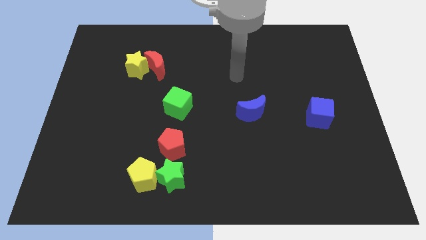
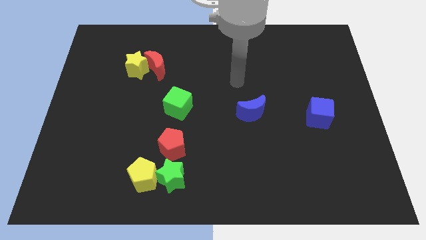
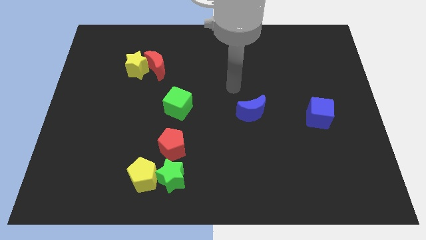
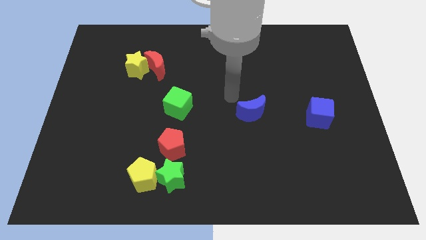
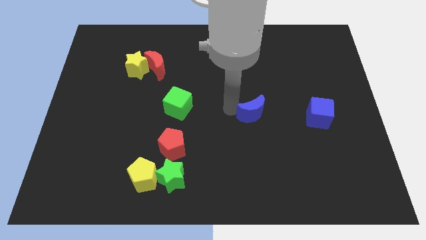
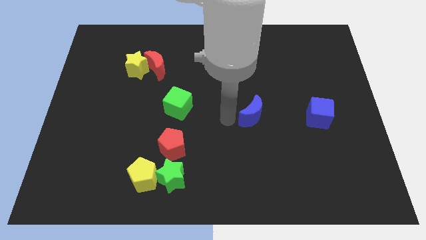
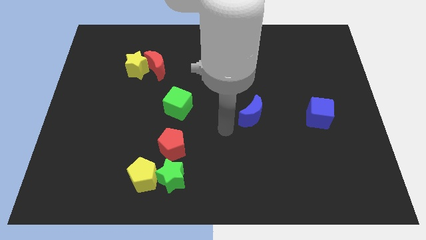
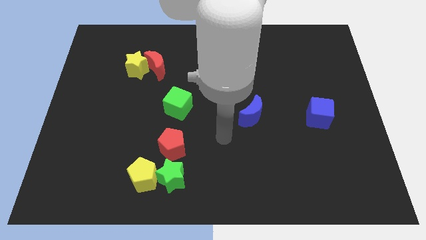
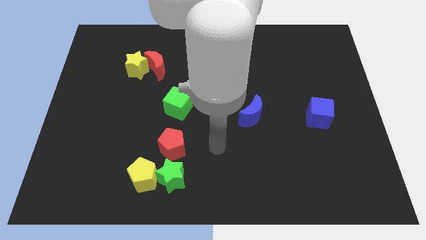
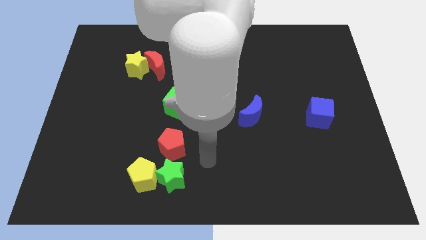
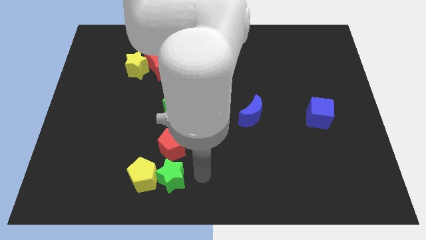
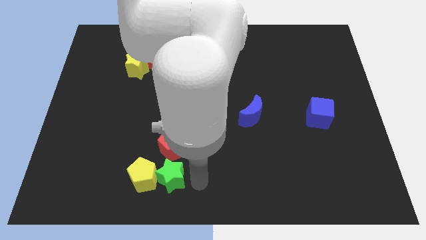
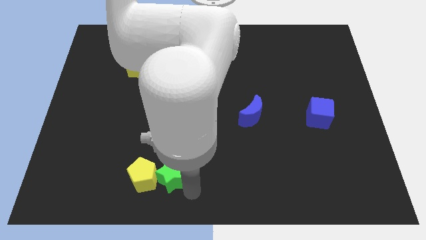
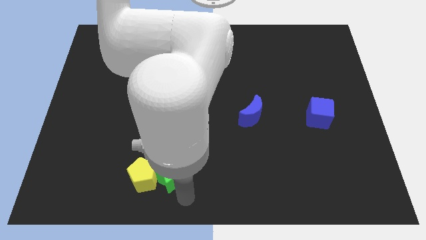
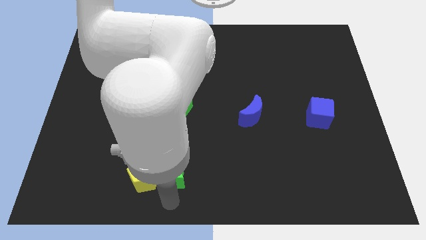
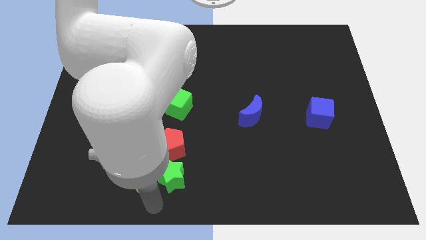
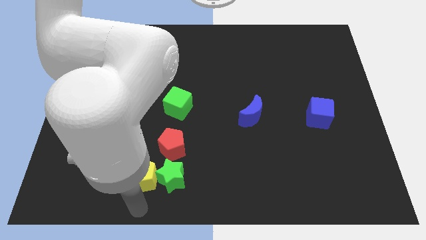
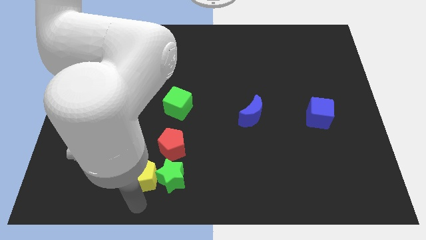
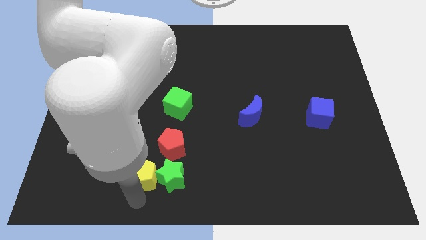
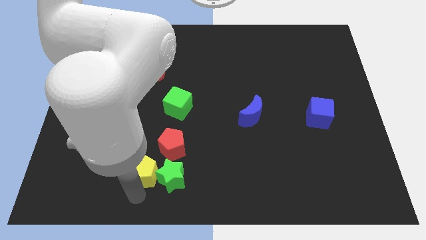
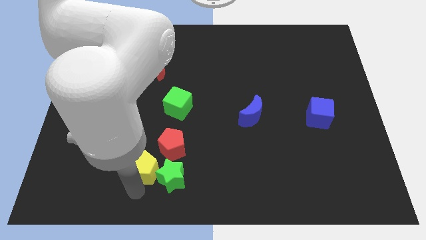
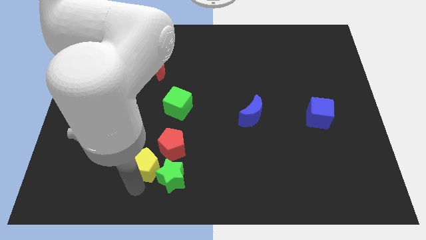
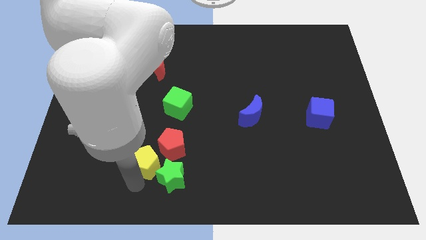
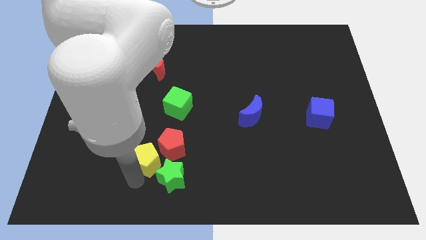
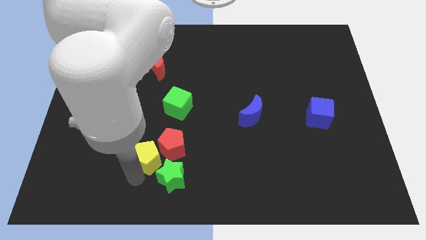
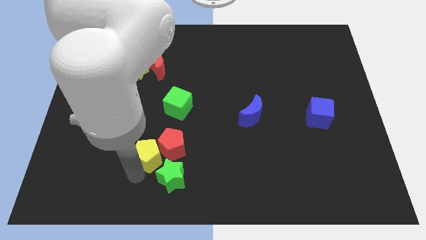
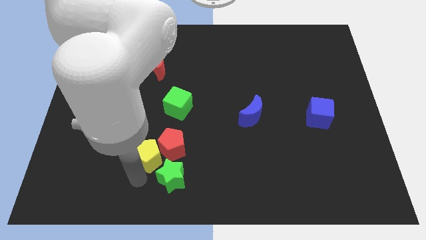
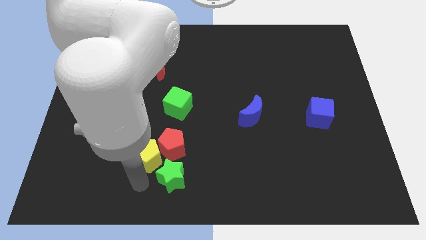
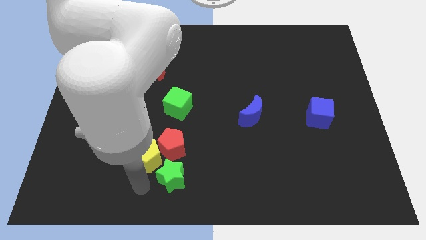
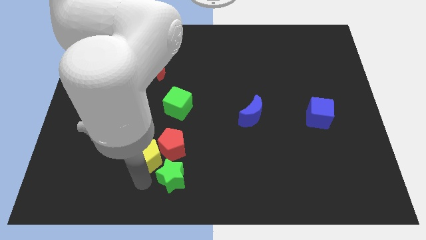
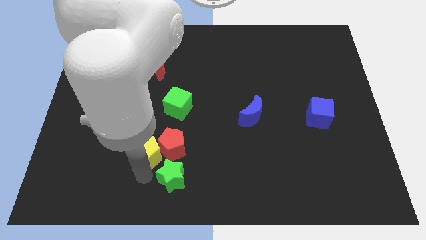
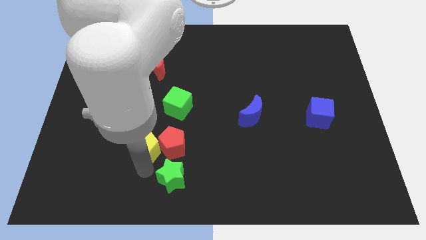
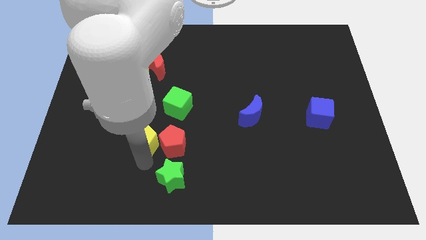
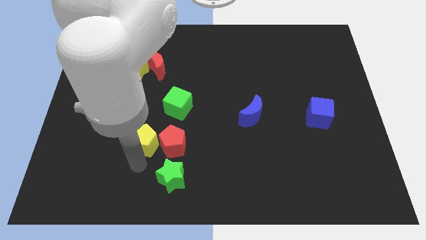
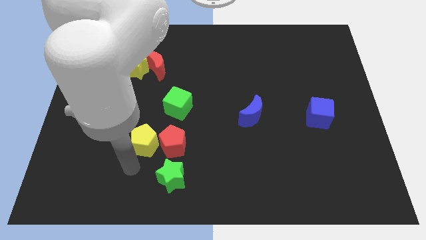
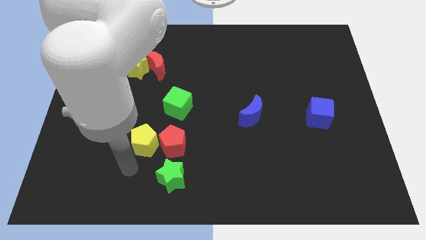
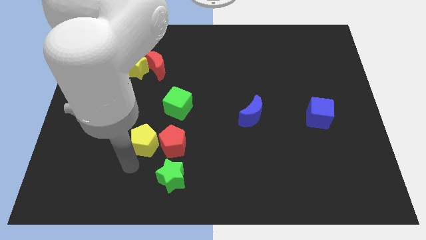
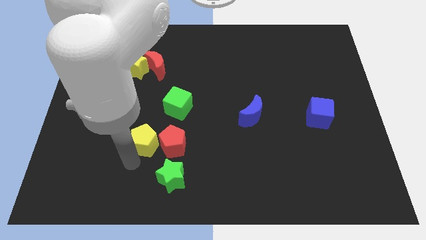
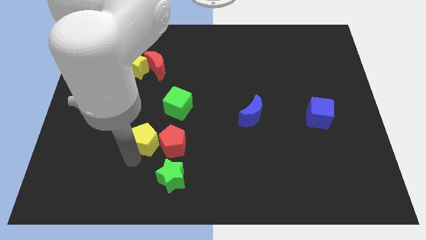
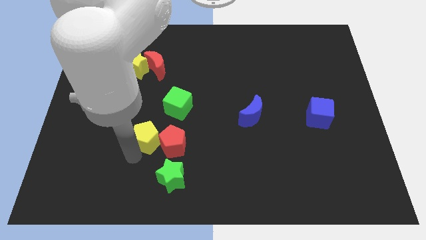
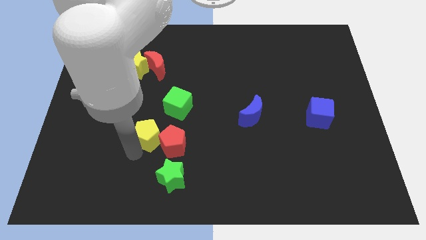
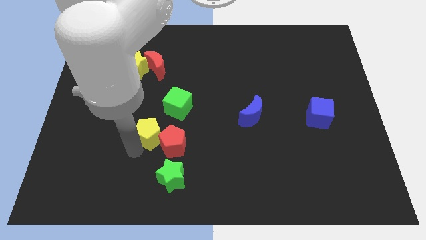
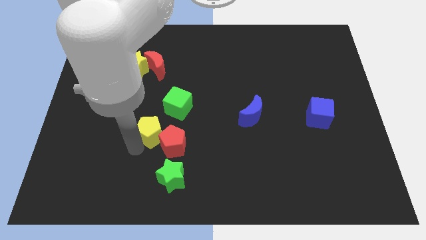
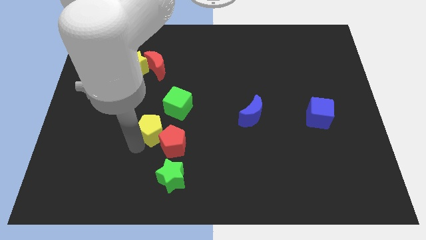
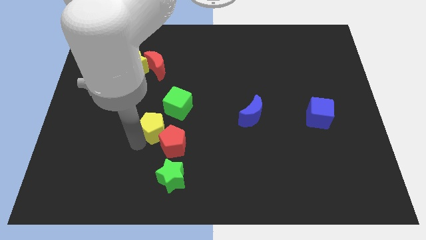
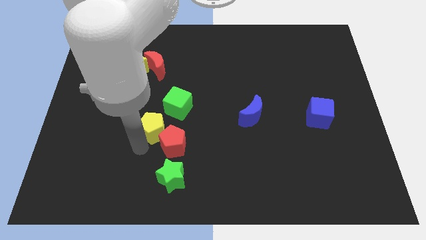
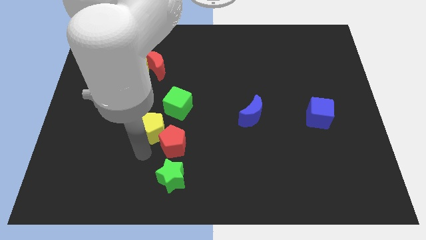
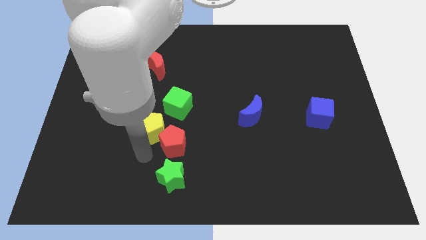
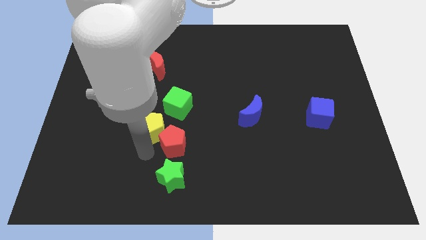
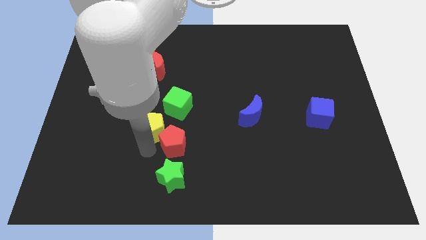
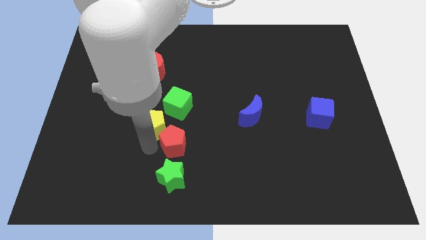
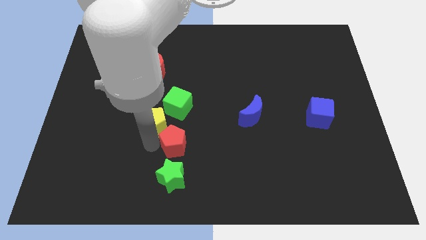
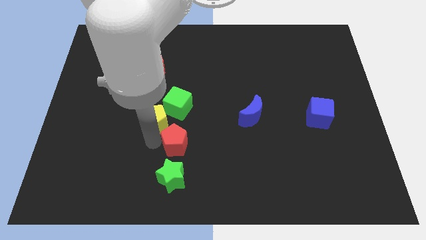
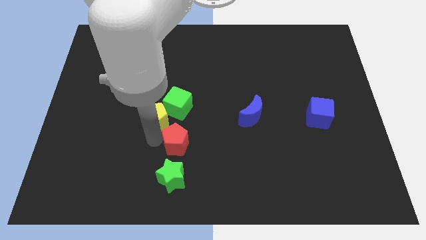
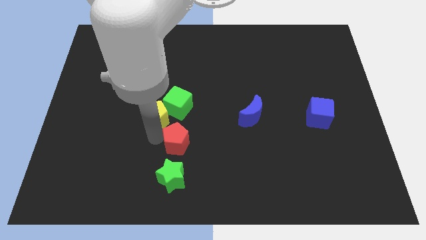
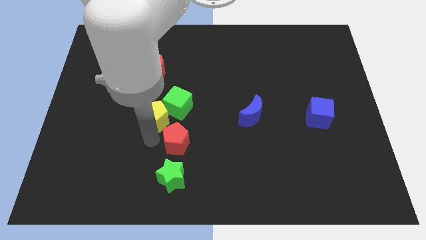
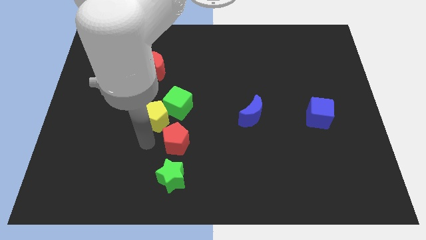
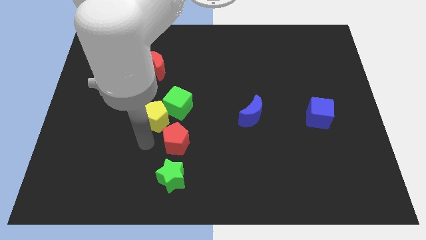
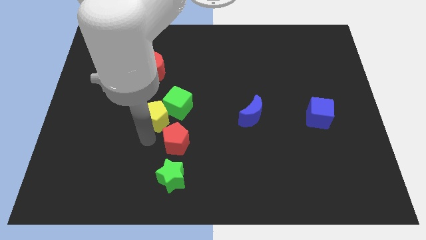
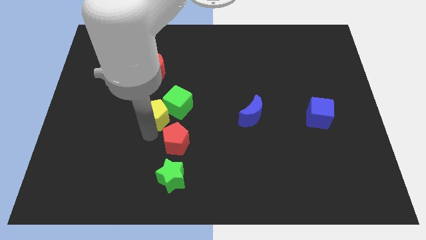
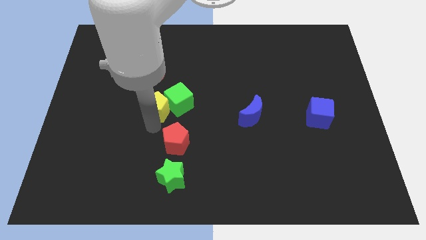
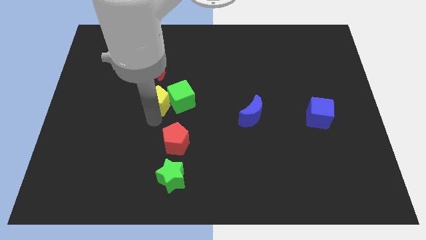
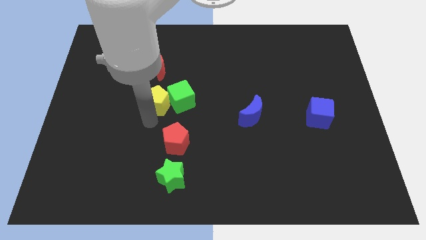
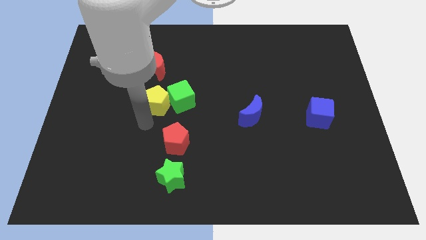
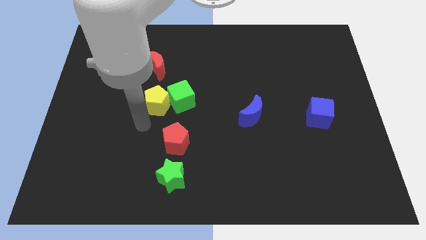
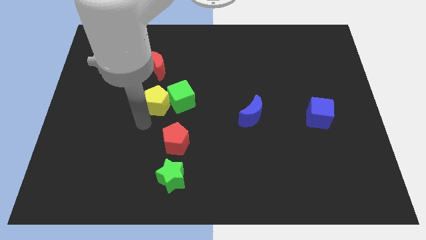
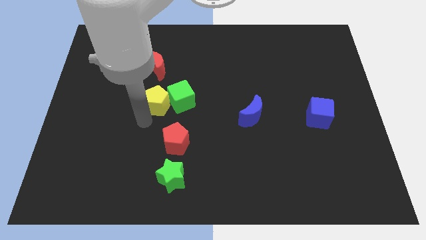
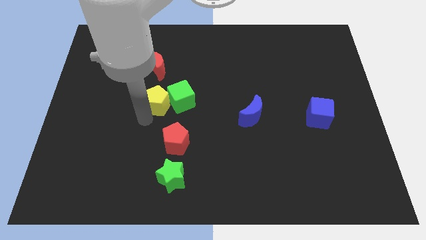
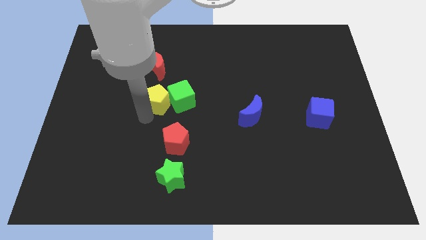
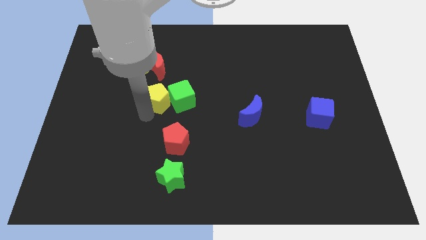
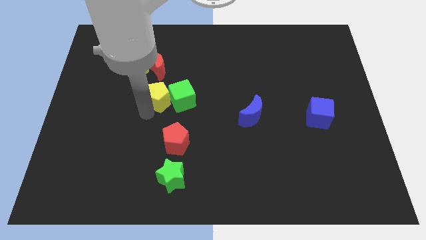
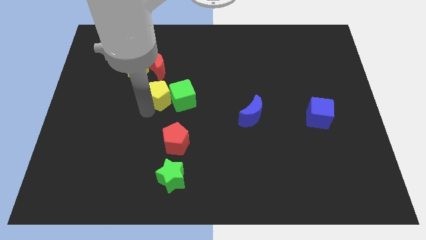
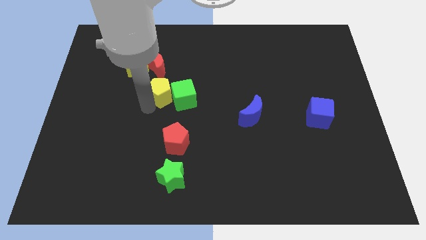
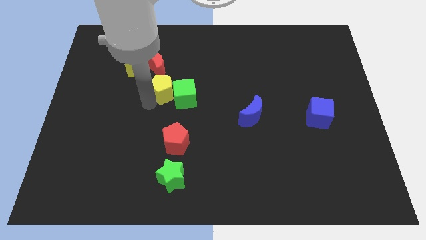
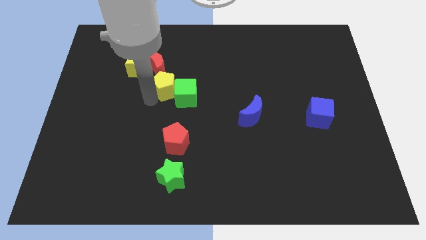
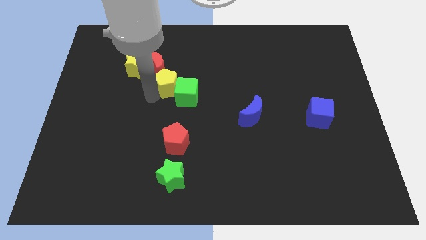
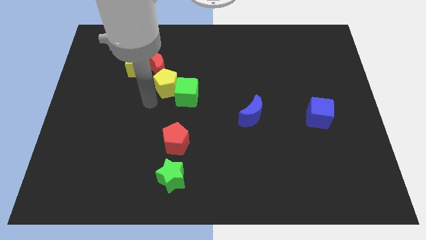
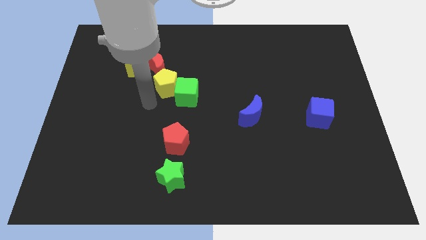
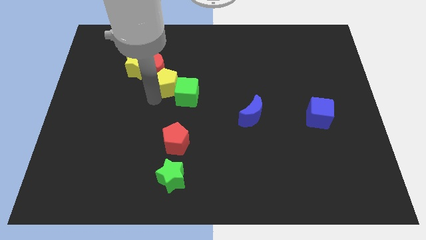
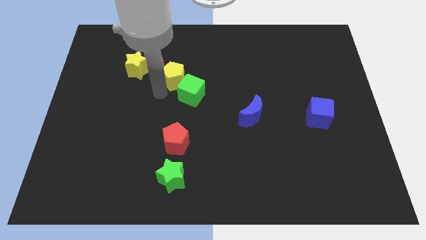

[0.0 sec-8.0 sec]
put the yellow pentagon to the top side of the green cube
